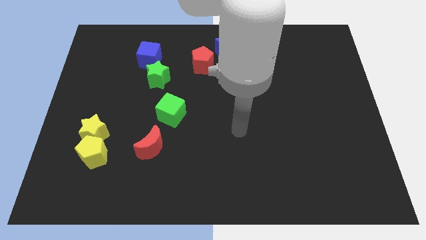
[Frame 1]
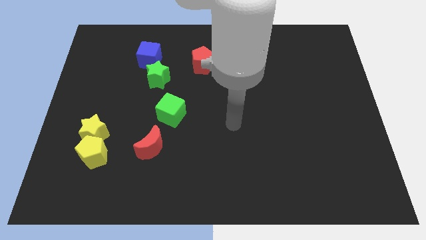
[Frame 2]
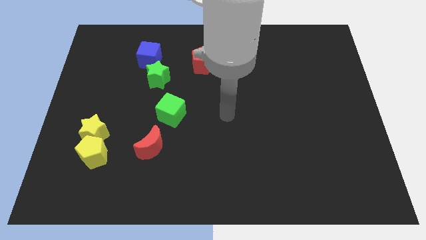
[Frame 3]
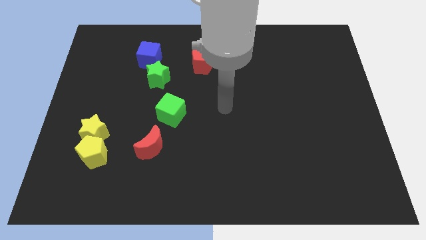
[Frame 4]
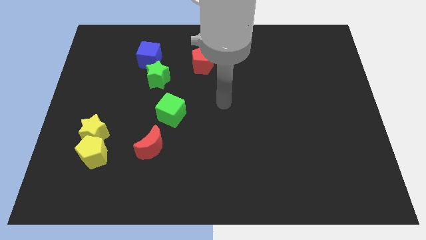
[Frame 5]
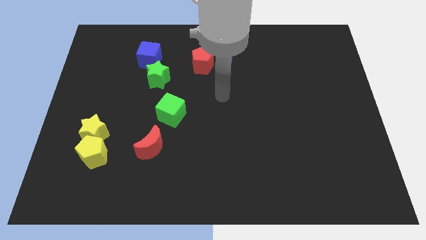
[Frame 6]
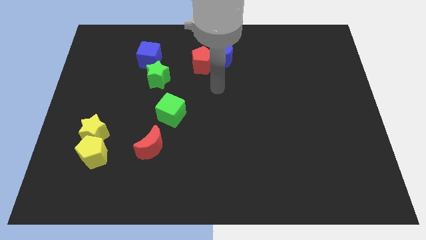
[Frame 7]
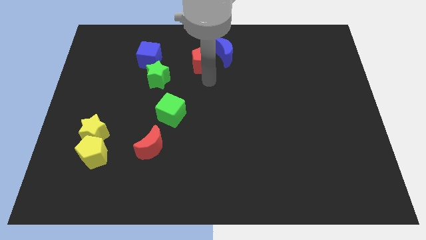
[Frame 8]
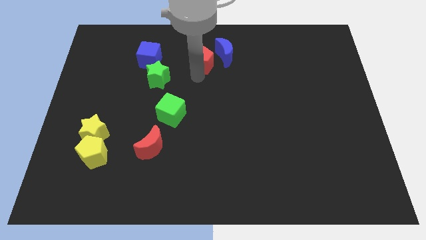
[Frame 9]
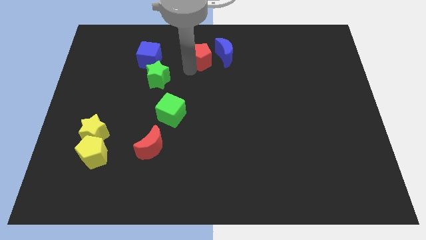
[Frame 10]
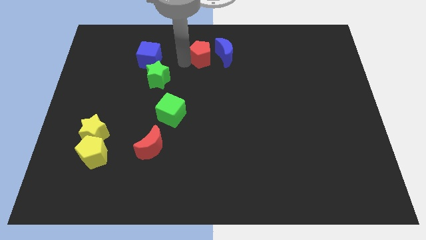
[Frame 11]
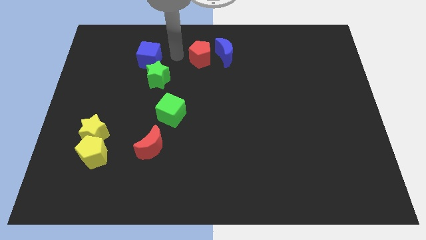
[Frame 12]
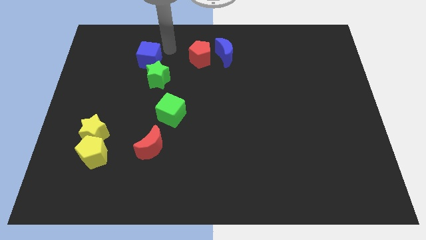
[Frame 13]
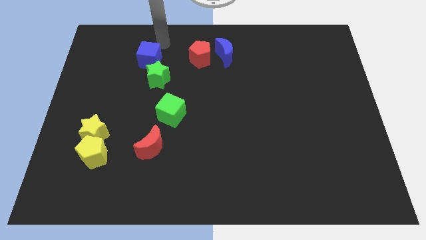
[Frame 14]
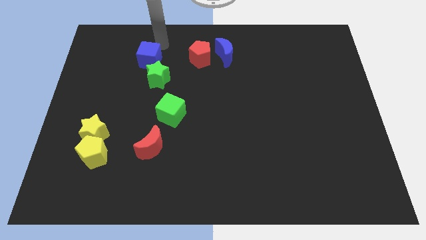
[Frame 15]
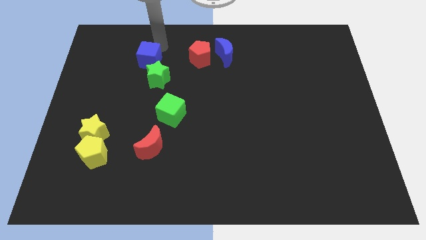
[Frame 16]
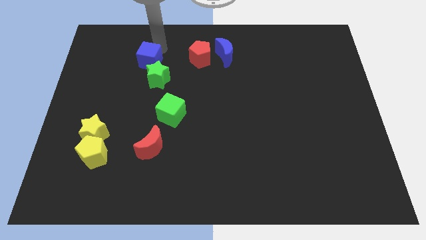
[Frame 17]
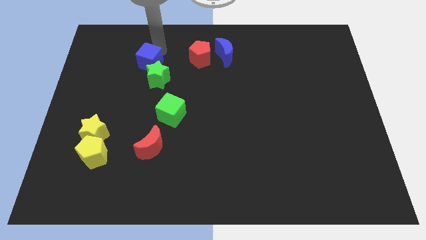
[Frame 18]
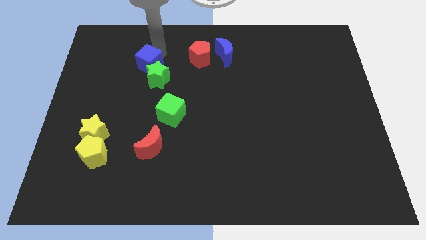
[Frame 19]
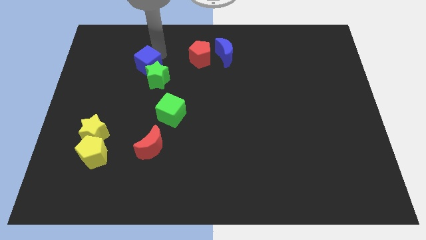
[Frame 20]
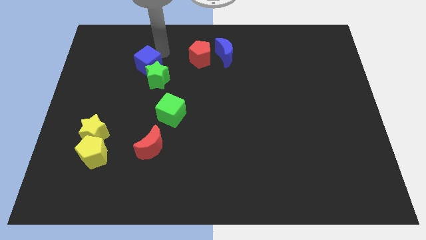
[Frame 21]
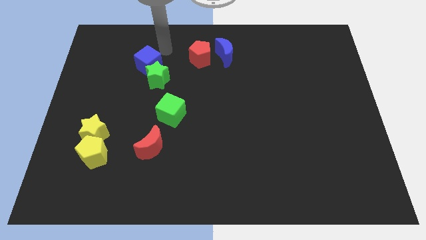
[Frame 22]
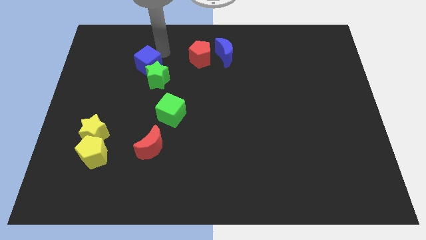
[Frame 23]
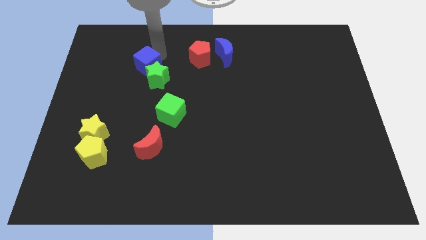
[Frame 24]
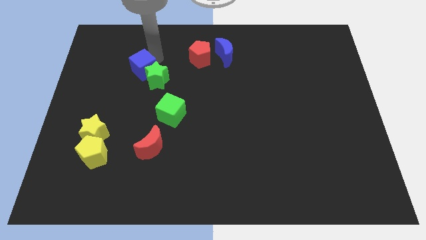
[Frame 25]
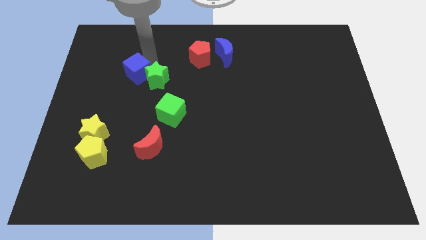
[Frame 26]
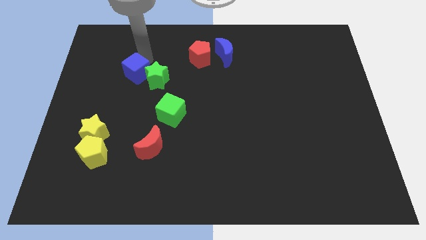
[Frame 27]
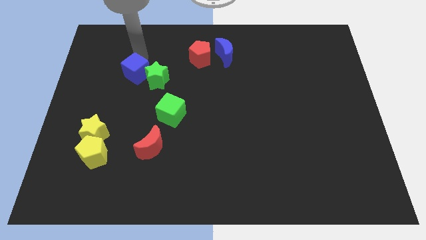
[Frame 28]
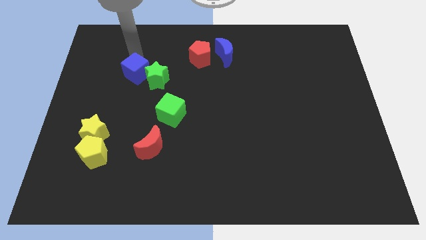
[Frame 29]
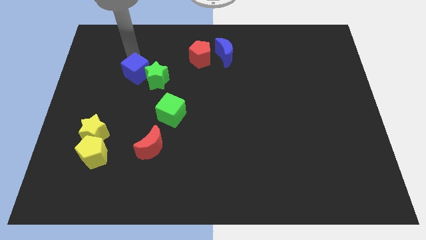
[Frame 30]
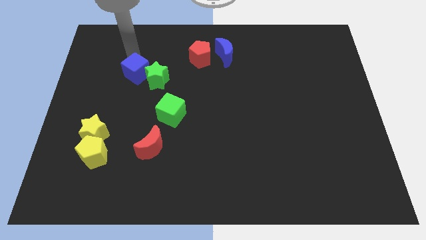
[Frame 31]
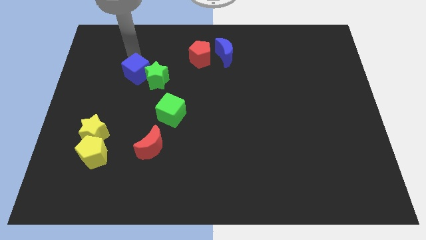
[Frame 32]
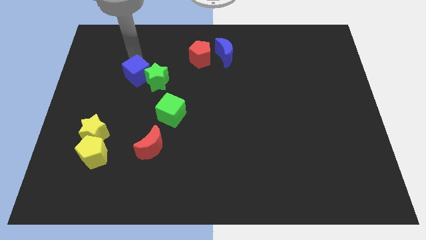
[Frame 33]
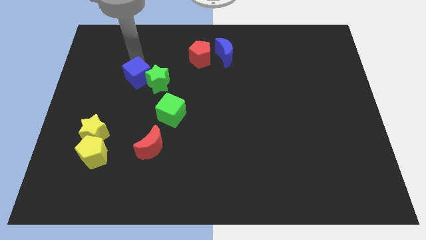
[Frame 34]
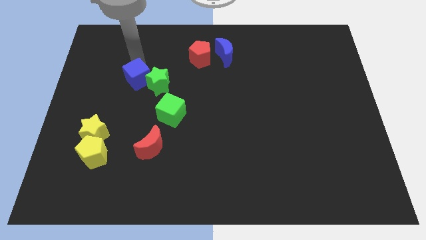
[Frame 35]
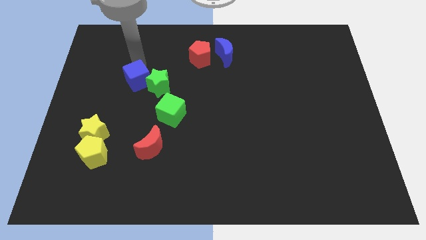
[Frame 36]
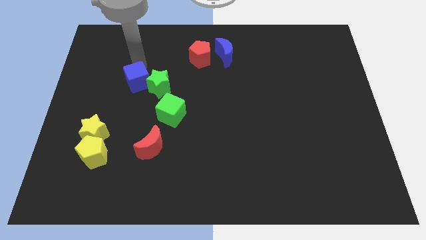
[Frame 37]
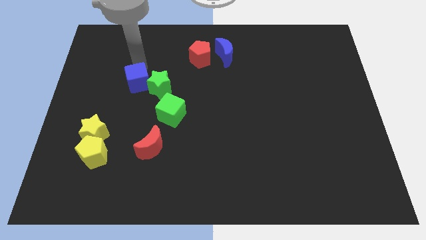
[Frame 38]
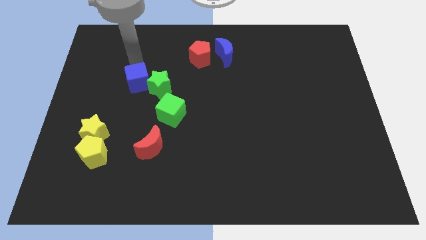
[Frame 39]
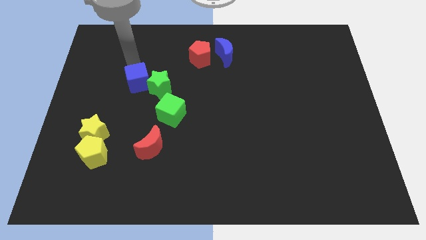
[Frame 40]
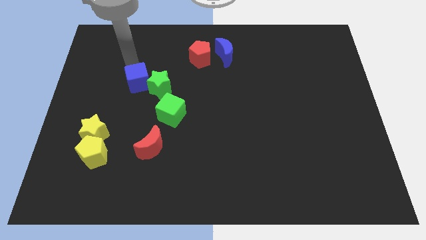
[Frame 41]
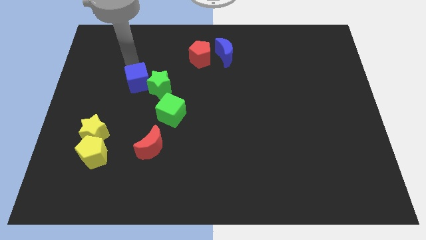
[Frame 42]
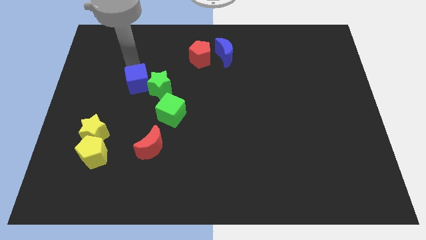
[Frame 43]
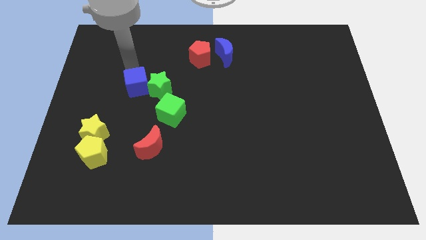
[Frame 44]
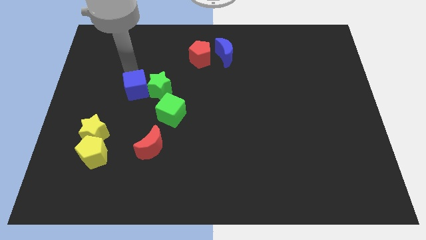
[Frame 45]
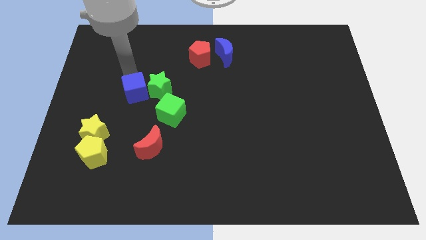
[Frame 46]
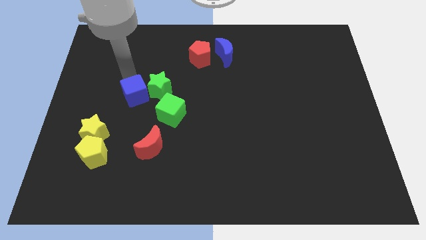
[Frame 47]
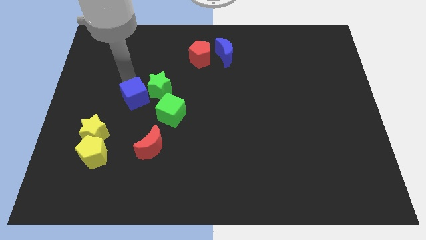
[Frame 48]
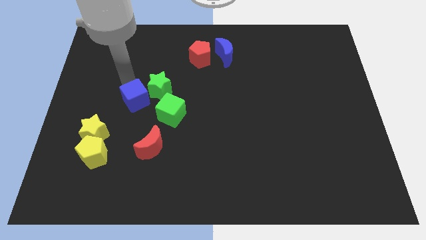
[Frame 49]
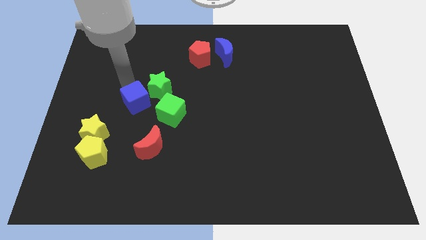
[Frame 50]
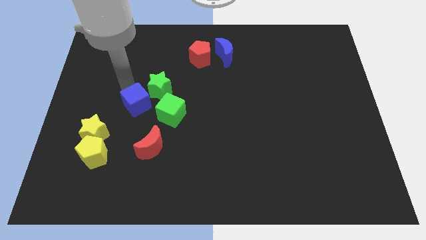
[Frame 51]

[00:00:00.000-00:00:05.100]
slide the blue cube above the red moon

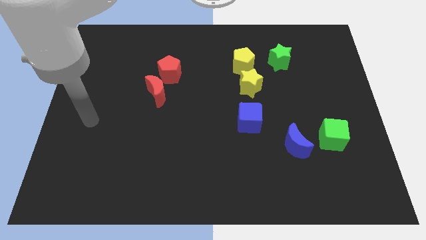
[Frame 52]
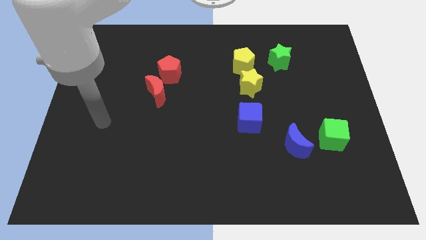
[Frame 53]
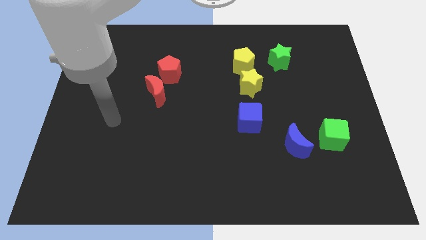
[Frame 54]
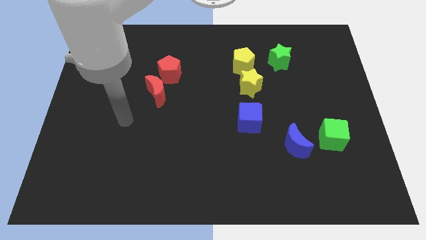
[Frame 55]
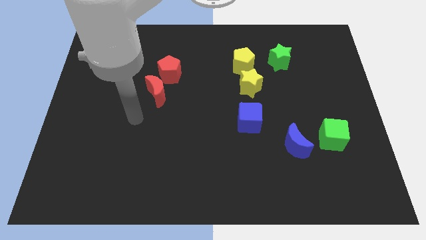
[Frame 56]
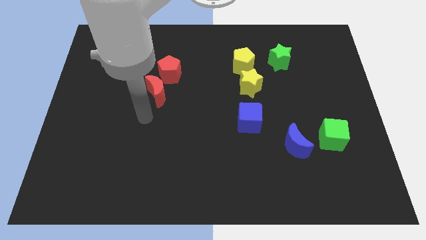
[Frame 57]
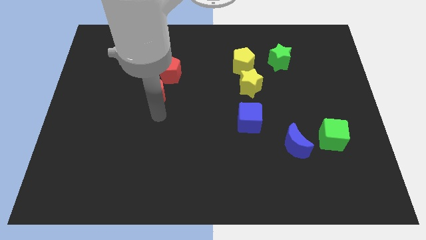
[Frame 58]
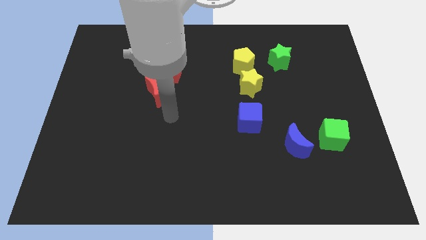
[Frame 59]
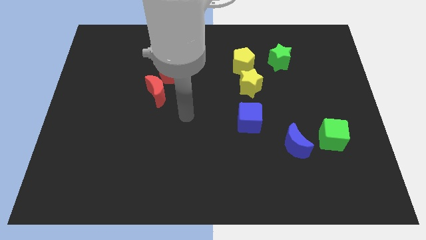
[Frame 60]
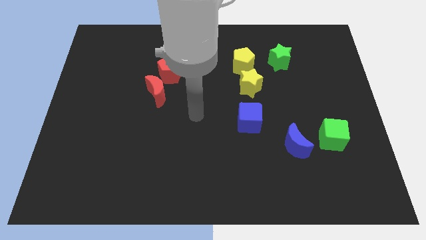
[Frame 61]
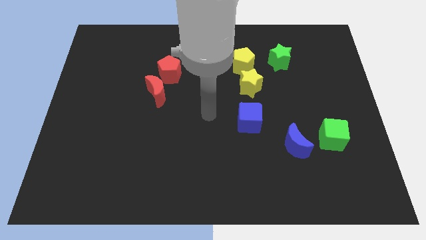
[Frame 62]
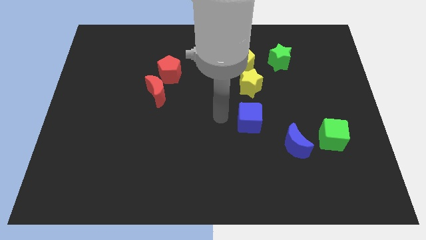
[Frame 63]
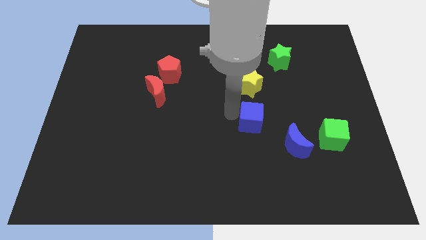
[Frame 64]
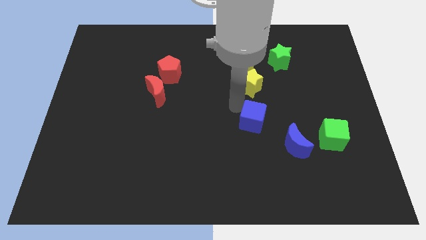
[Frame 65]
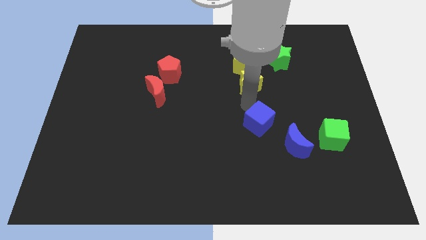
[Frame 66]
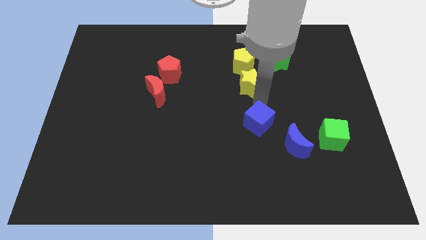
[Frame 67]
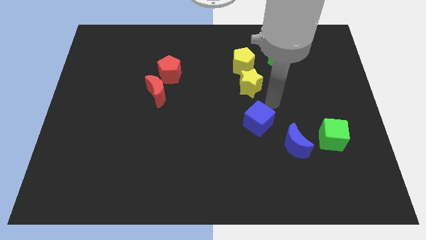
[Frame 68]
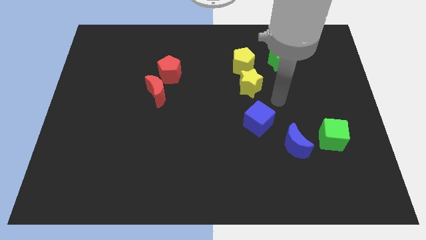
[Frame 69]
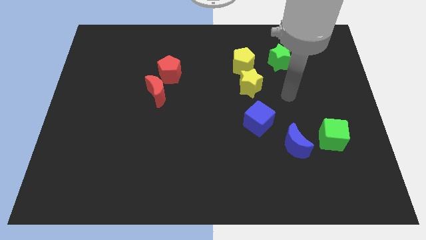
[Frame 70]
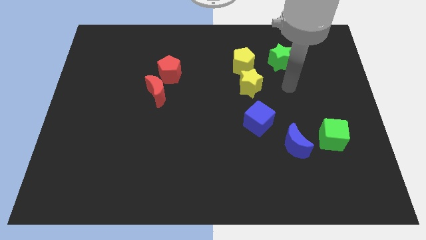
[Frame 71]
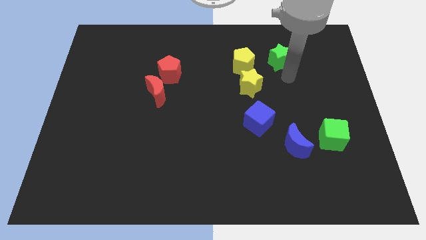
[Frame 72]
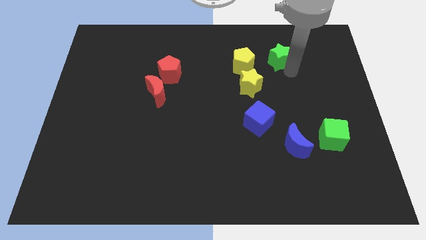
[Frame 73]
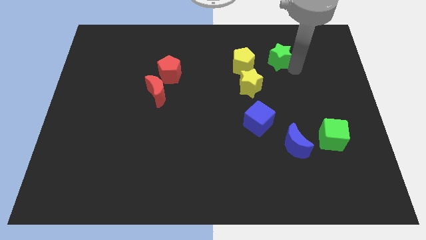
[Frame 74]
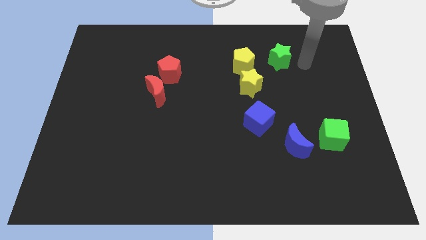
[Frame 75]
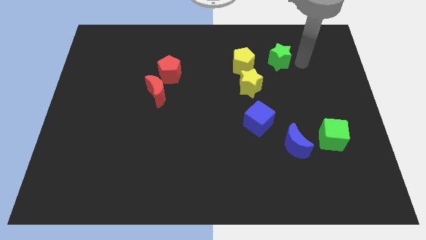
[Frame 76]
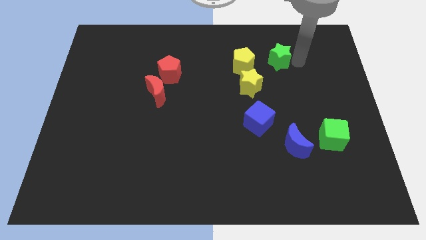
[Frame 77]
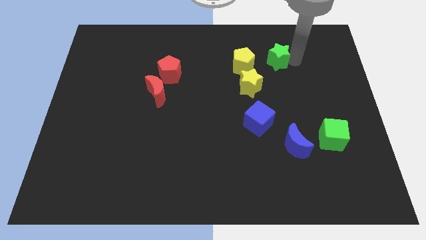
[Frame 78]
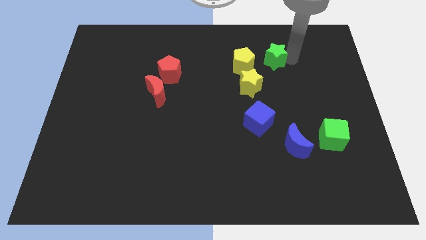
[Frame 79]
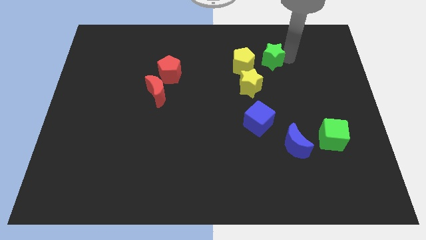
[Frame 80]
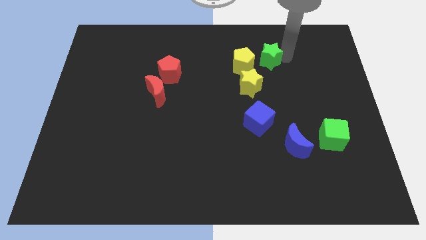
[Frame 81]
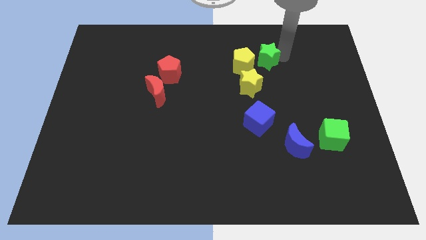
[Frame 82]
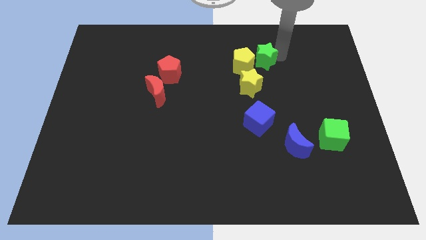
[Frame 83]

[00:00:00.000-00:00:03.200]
slide the green star to the top side of the yellow star

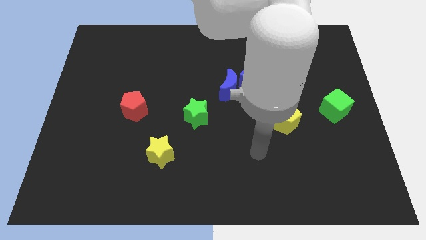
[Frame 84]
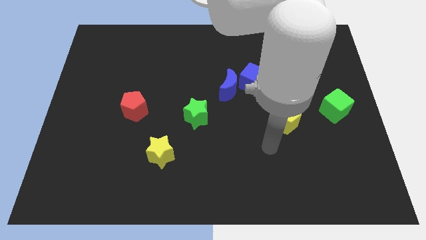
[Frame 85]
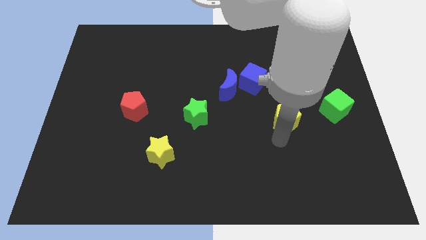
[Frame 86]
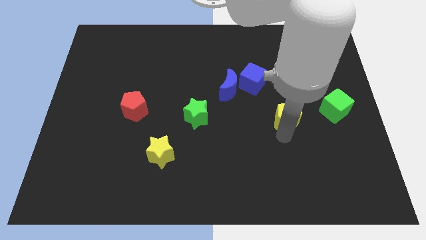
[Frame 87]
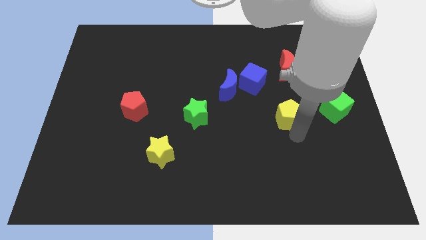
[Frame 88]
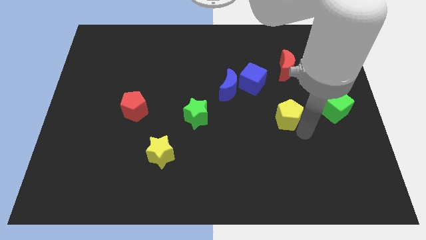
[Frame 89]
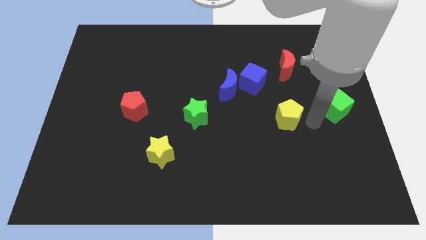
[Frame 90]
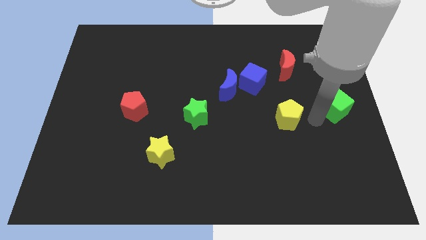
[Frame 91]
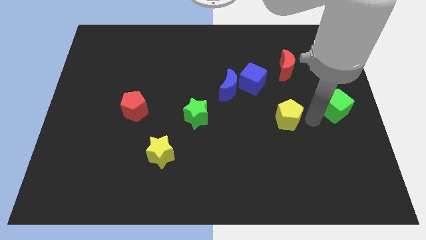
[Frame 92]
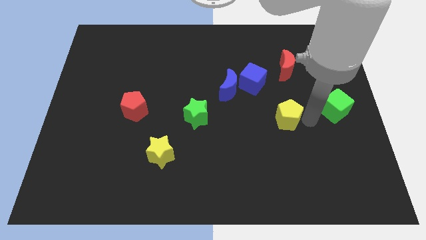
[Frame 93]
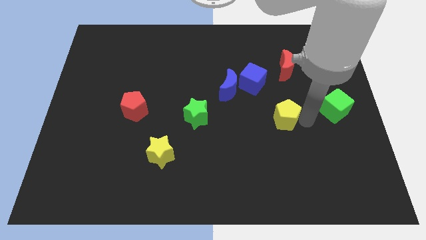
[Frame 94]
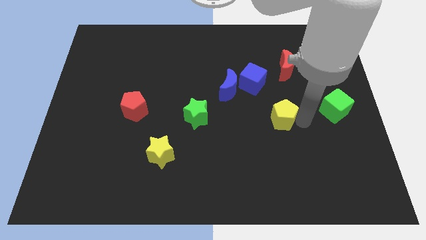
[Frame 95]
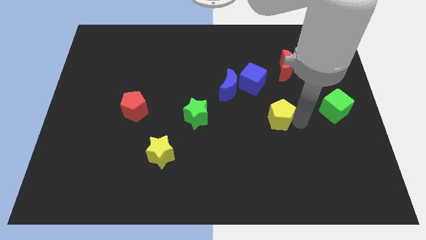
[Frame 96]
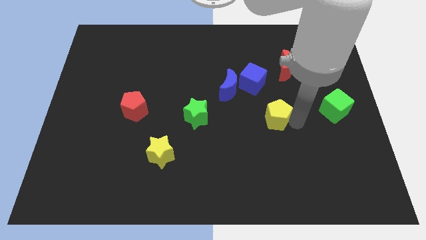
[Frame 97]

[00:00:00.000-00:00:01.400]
slide the yellow pentagon to the bottom of the blue cube
